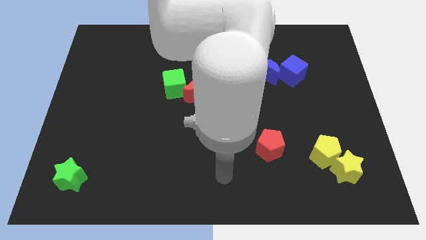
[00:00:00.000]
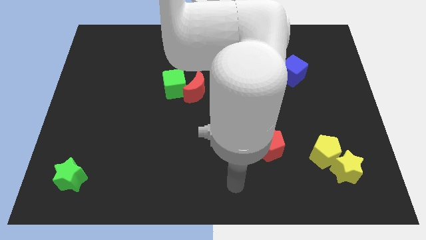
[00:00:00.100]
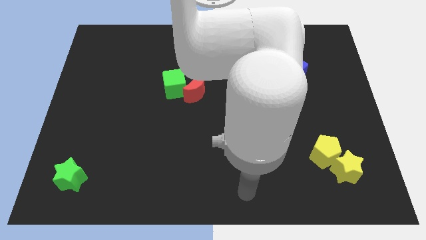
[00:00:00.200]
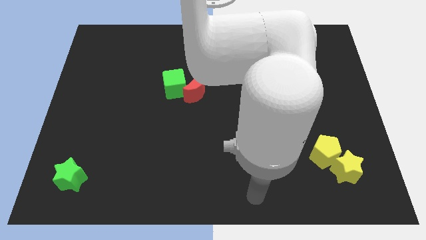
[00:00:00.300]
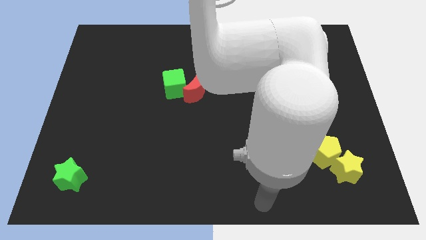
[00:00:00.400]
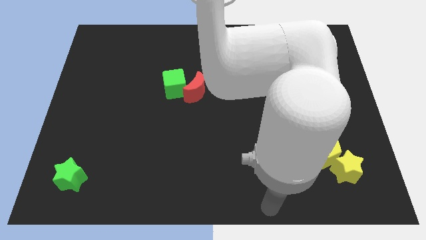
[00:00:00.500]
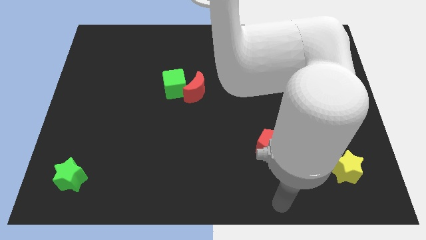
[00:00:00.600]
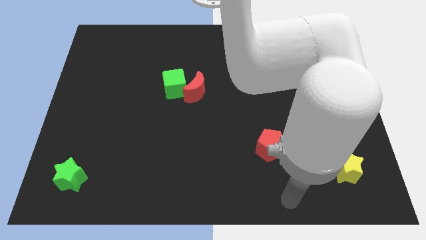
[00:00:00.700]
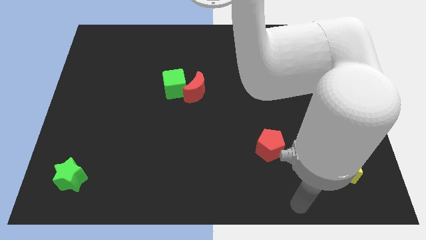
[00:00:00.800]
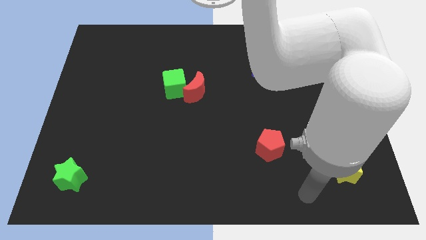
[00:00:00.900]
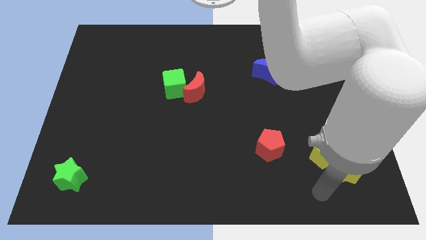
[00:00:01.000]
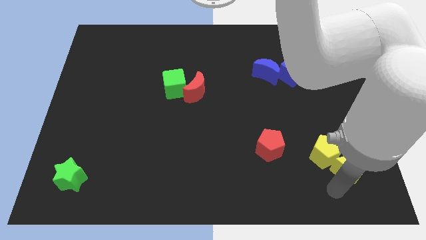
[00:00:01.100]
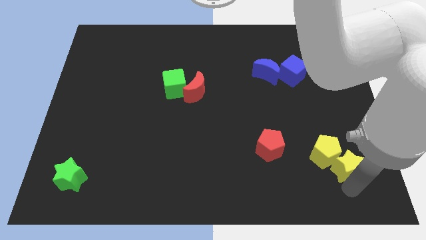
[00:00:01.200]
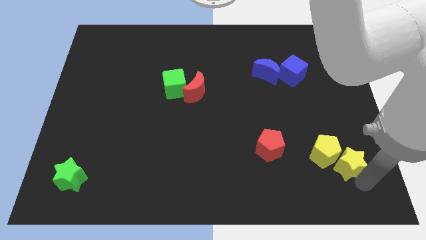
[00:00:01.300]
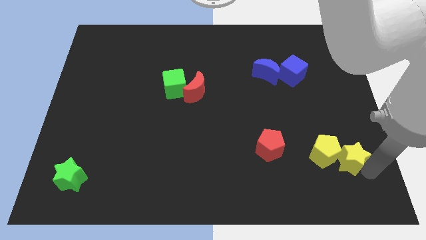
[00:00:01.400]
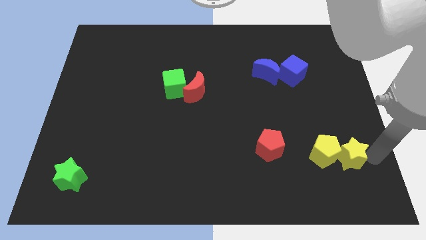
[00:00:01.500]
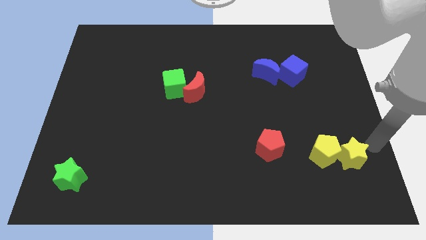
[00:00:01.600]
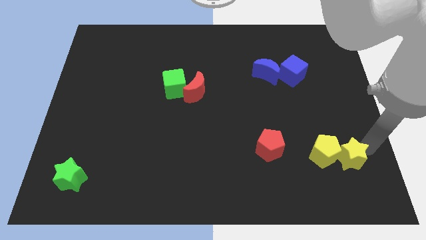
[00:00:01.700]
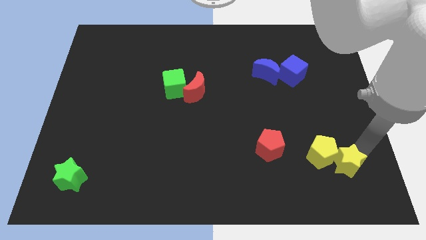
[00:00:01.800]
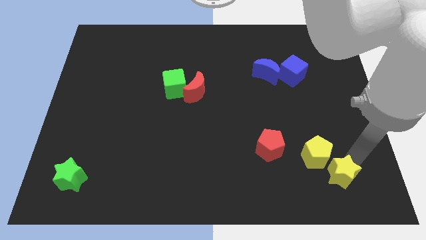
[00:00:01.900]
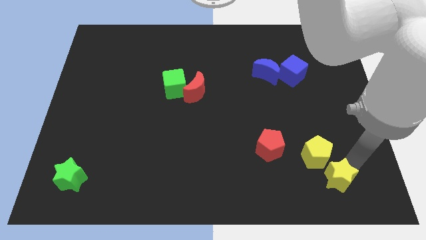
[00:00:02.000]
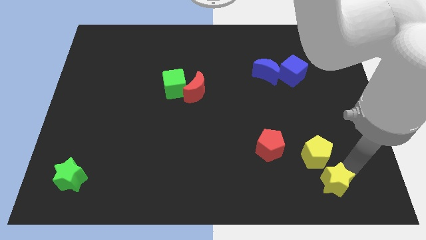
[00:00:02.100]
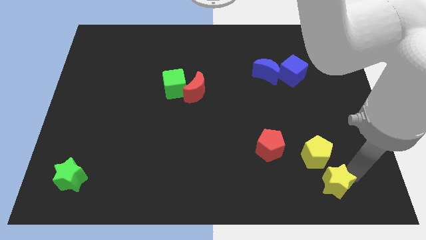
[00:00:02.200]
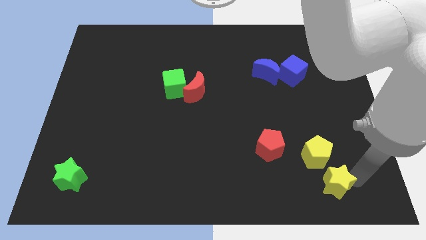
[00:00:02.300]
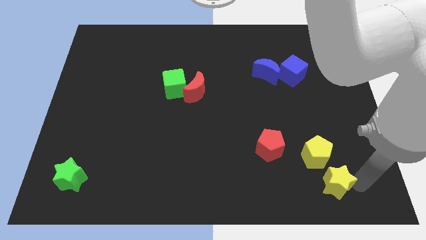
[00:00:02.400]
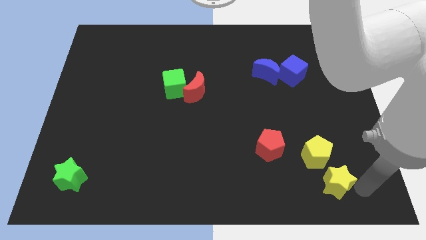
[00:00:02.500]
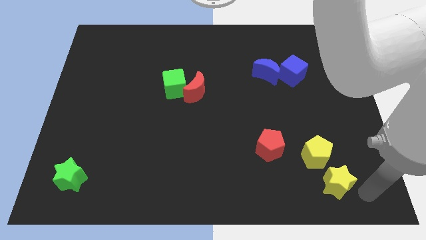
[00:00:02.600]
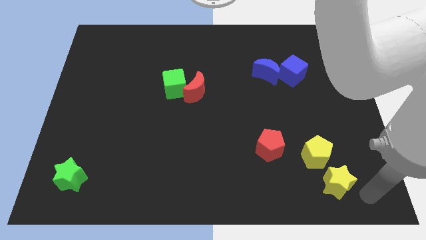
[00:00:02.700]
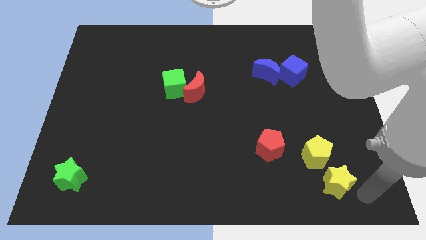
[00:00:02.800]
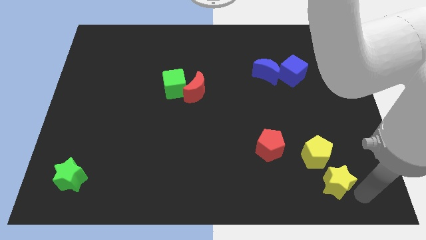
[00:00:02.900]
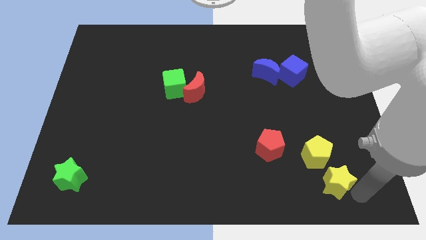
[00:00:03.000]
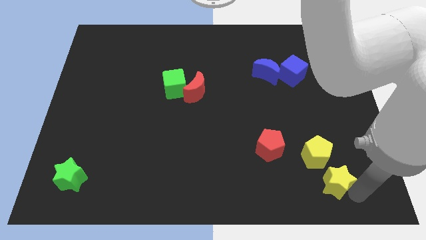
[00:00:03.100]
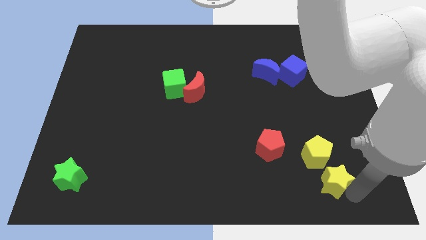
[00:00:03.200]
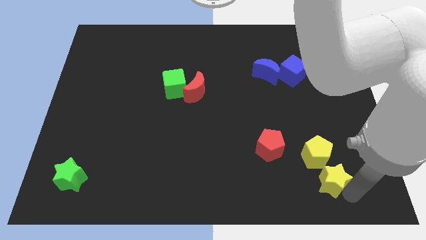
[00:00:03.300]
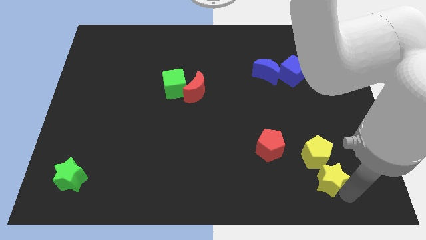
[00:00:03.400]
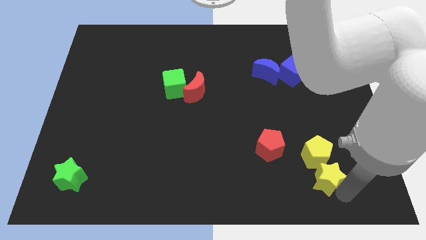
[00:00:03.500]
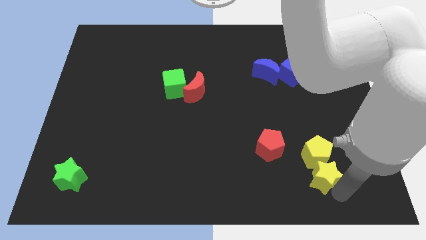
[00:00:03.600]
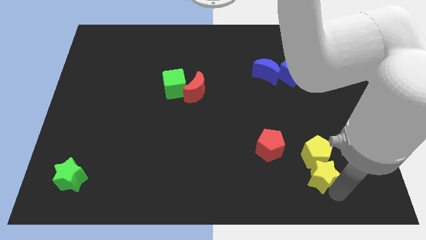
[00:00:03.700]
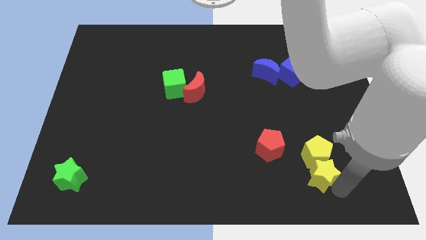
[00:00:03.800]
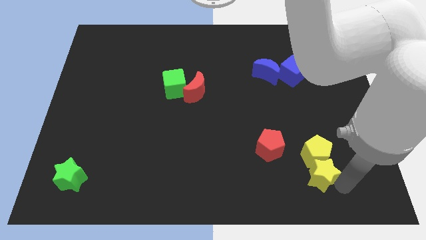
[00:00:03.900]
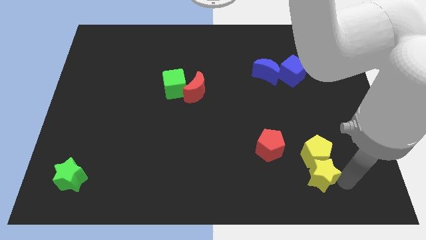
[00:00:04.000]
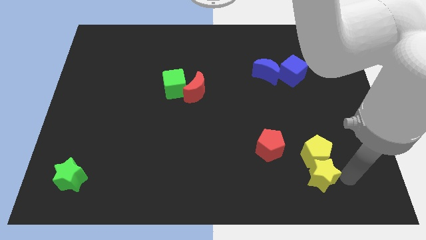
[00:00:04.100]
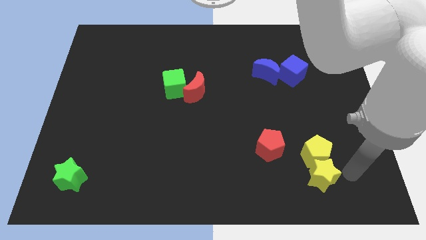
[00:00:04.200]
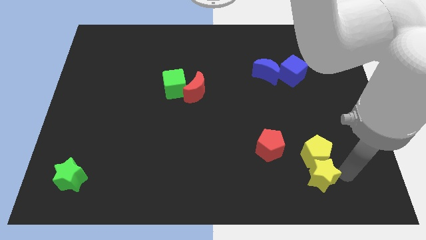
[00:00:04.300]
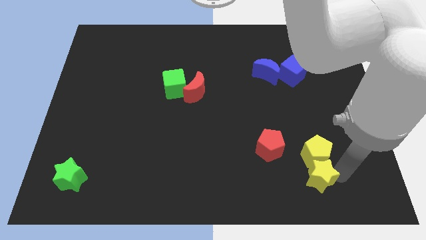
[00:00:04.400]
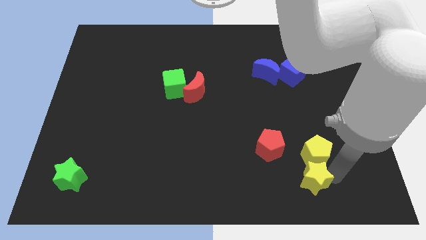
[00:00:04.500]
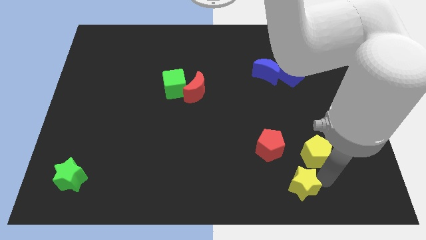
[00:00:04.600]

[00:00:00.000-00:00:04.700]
push the yellow star slightly left

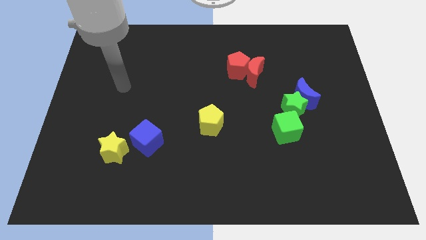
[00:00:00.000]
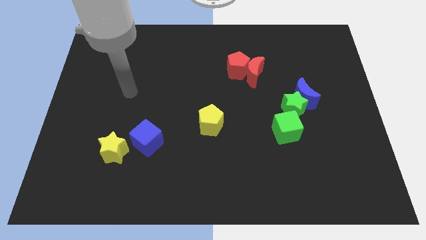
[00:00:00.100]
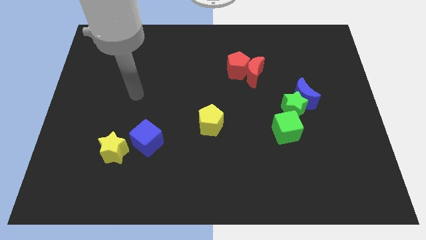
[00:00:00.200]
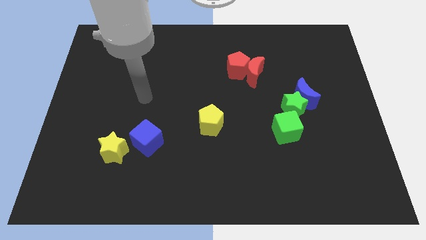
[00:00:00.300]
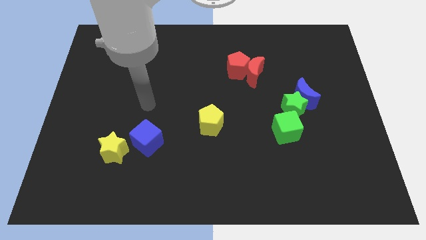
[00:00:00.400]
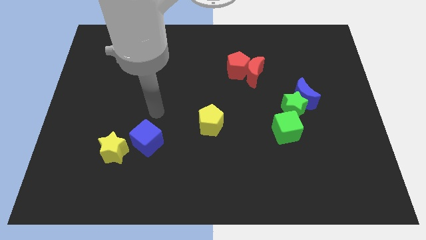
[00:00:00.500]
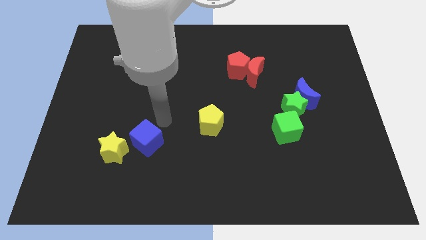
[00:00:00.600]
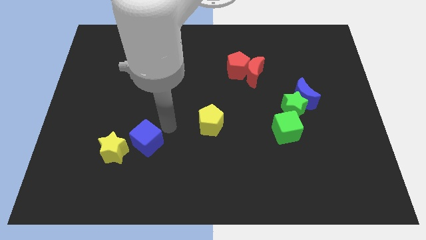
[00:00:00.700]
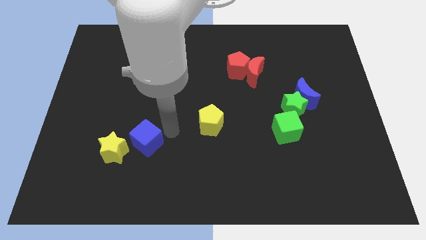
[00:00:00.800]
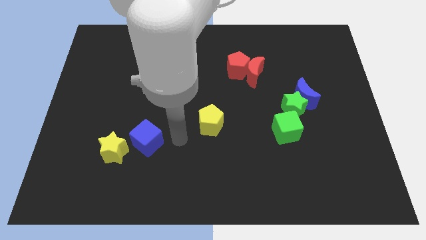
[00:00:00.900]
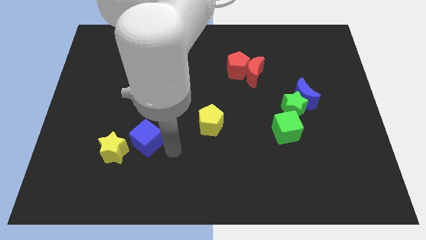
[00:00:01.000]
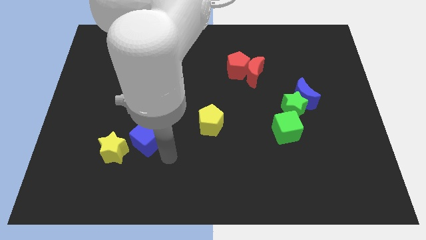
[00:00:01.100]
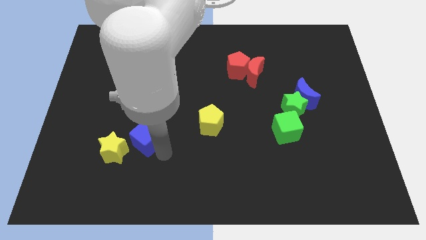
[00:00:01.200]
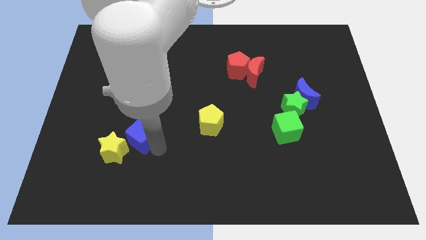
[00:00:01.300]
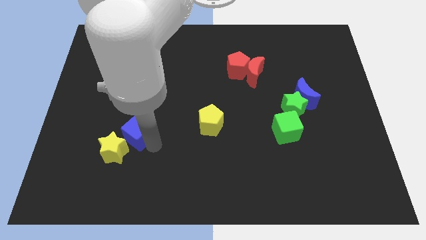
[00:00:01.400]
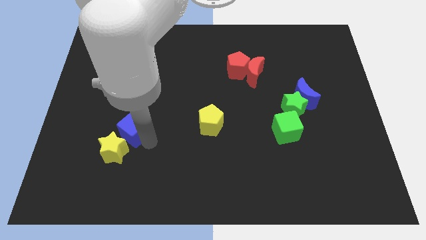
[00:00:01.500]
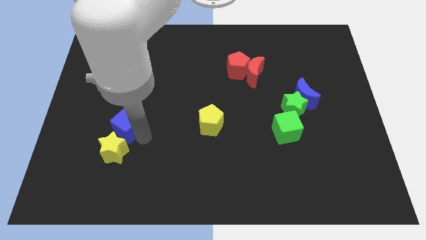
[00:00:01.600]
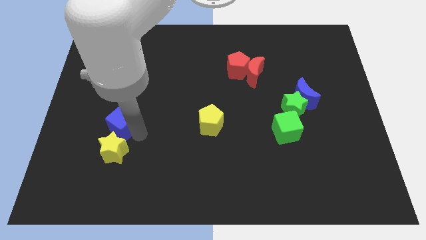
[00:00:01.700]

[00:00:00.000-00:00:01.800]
move the blue cube up and to the left diagonally a bit

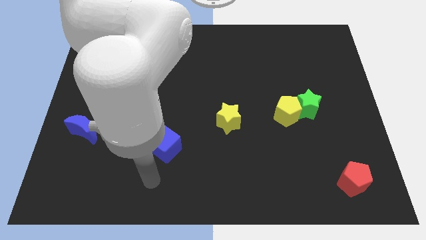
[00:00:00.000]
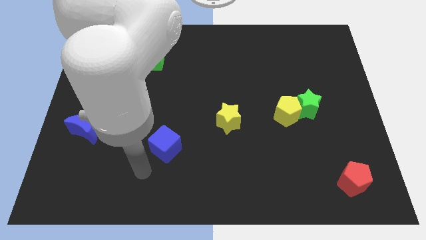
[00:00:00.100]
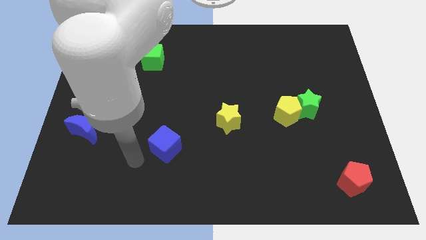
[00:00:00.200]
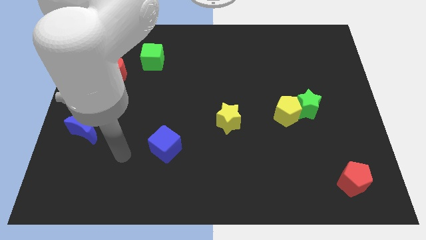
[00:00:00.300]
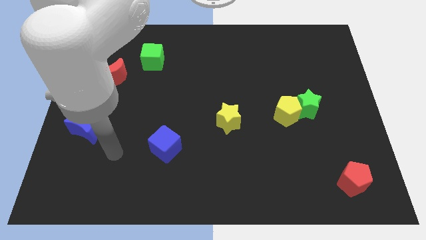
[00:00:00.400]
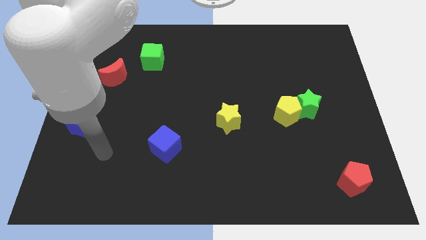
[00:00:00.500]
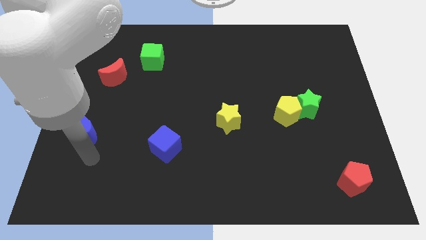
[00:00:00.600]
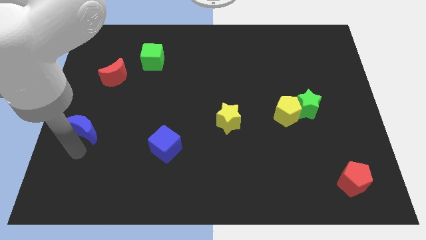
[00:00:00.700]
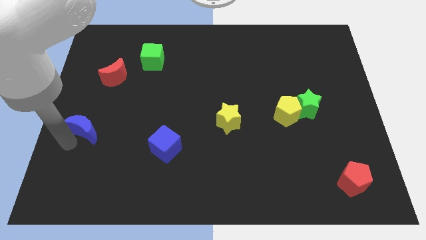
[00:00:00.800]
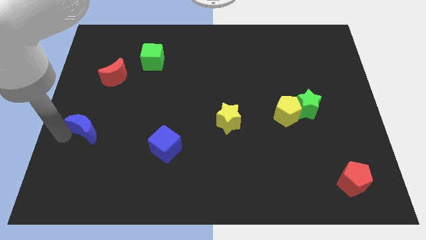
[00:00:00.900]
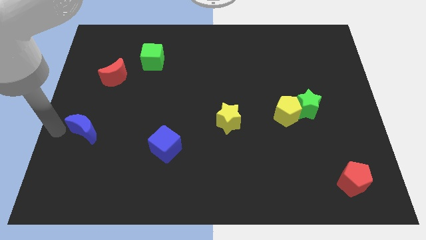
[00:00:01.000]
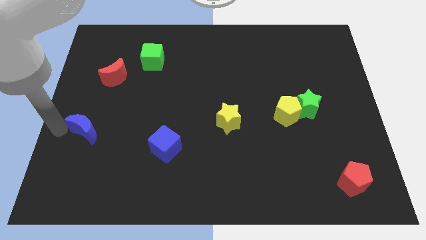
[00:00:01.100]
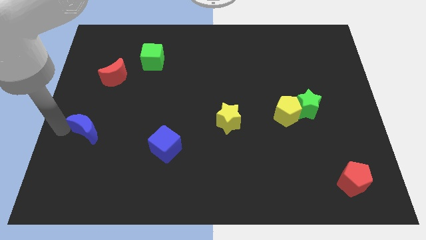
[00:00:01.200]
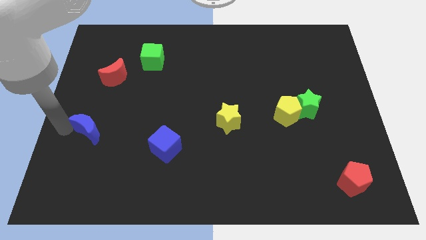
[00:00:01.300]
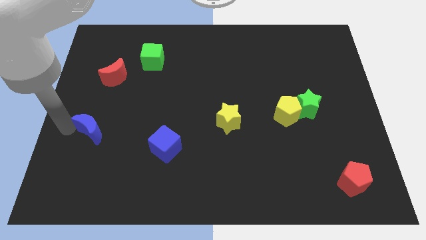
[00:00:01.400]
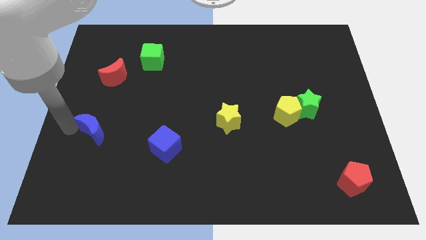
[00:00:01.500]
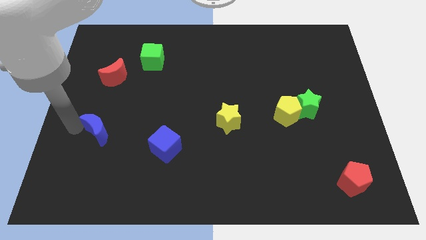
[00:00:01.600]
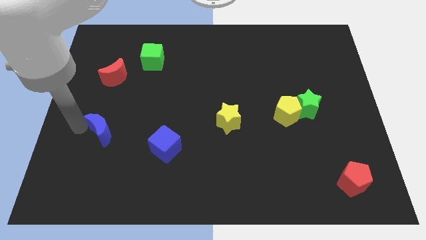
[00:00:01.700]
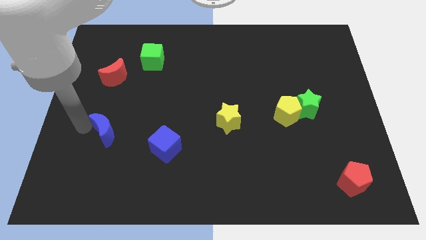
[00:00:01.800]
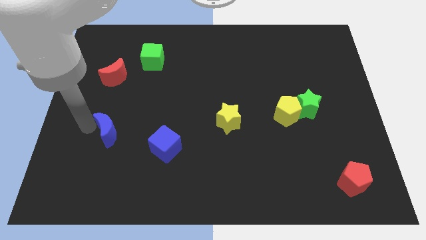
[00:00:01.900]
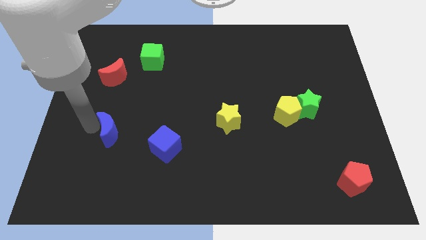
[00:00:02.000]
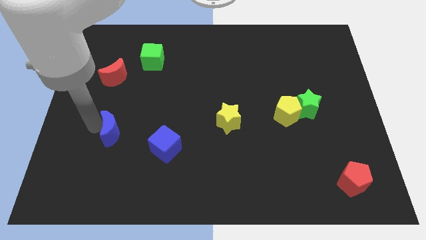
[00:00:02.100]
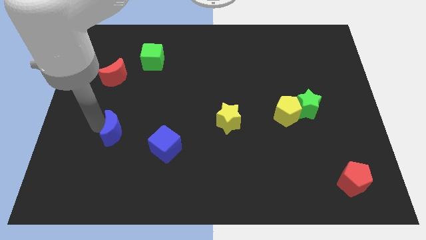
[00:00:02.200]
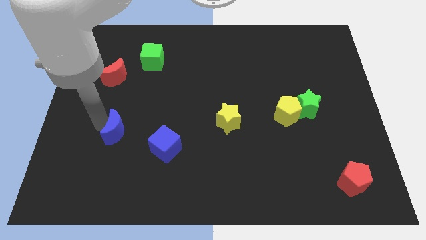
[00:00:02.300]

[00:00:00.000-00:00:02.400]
push the blue moon to the right slightly
